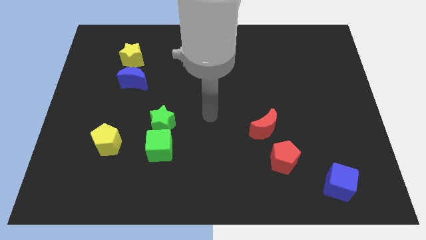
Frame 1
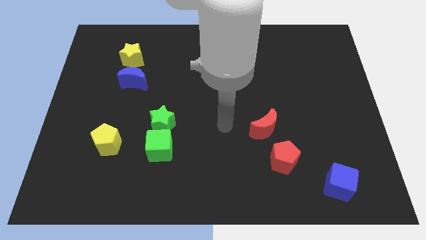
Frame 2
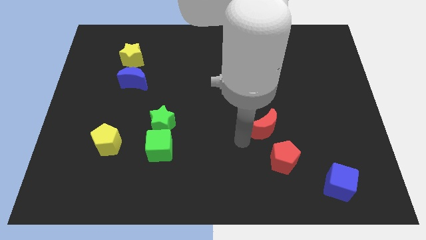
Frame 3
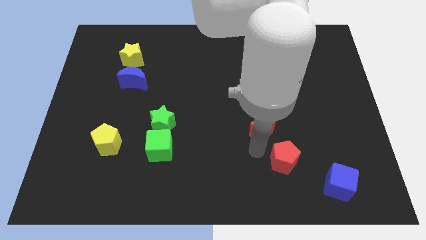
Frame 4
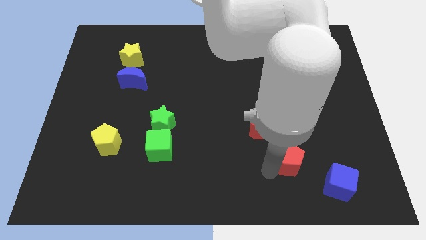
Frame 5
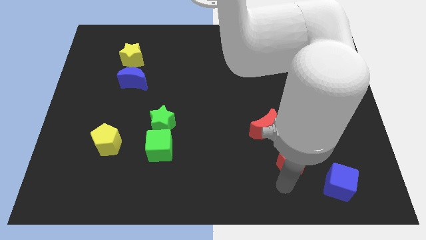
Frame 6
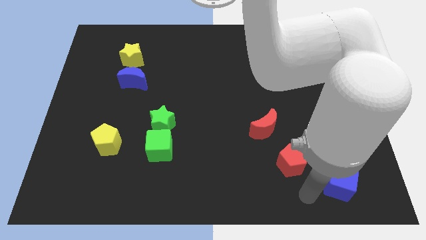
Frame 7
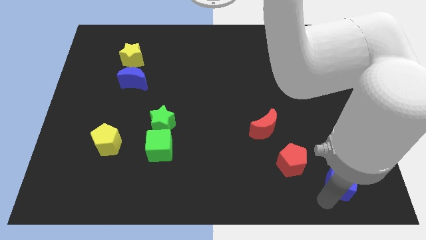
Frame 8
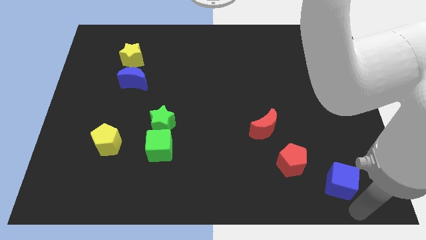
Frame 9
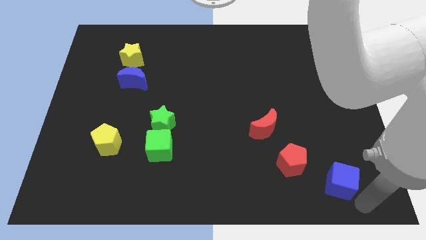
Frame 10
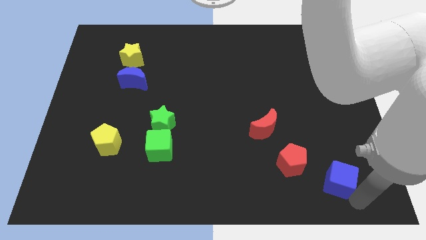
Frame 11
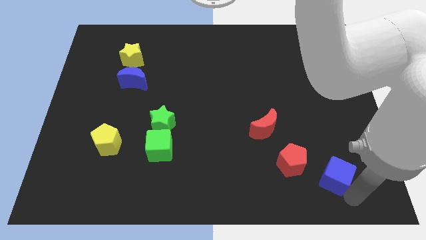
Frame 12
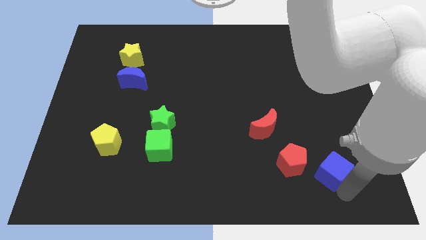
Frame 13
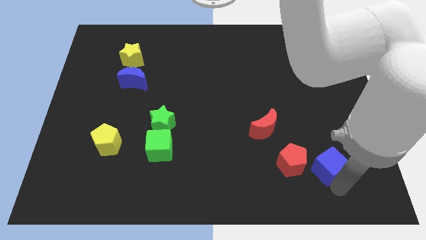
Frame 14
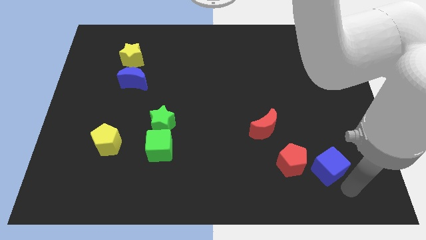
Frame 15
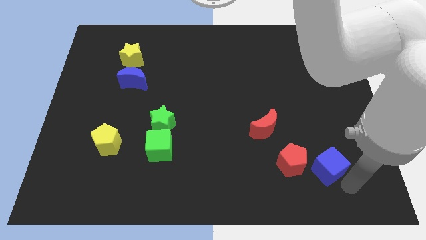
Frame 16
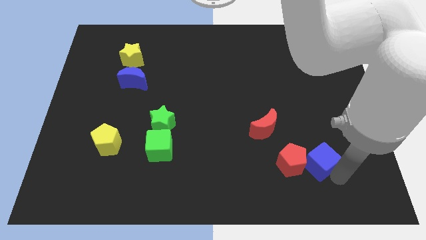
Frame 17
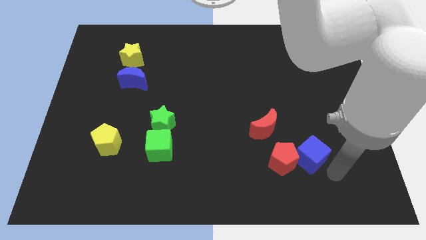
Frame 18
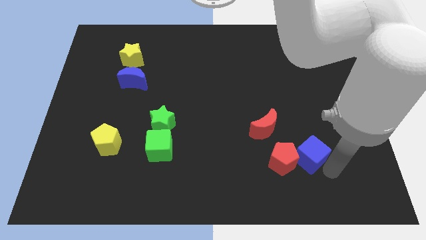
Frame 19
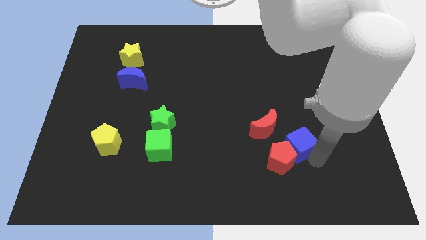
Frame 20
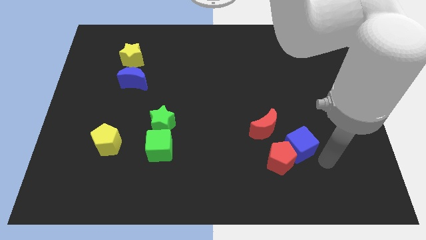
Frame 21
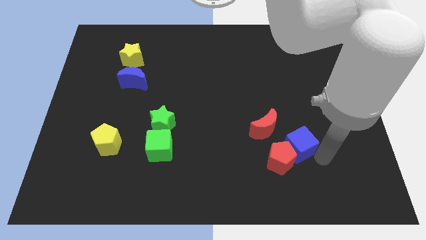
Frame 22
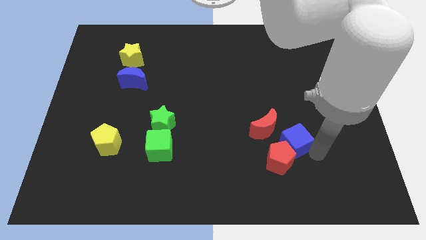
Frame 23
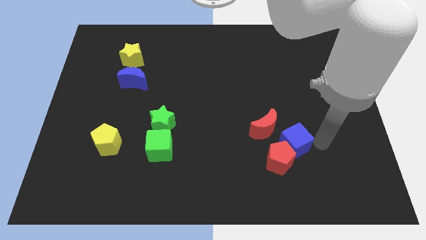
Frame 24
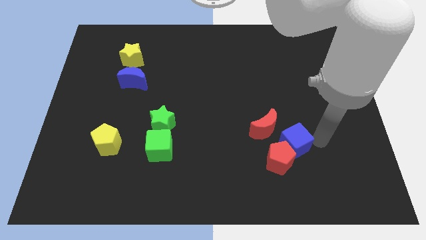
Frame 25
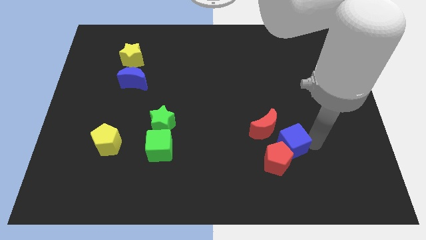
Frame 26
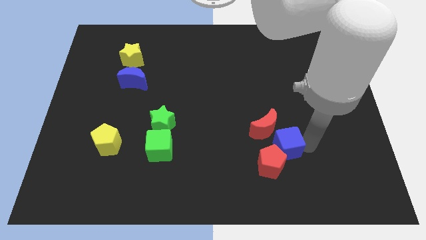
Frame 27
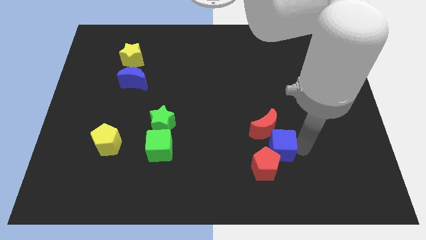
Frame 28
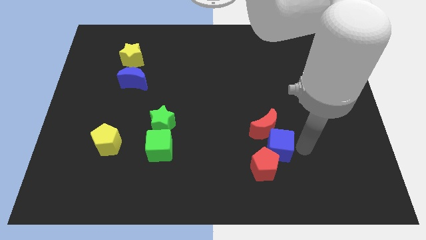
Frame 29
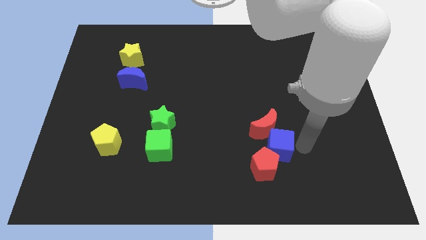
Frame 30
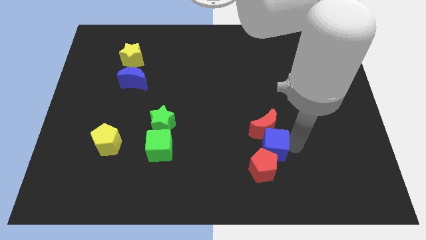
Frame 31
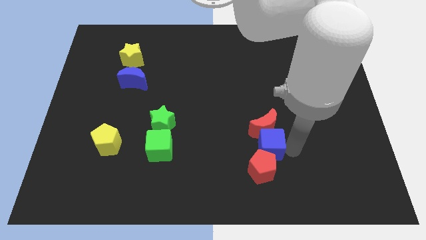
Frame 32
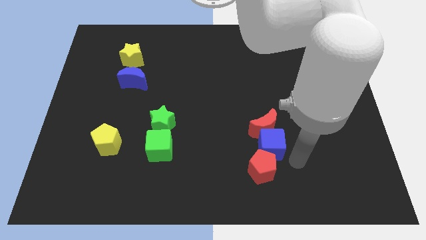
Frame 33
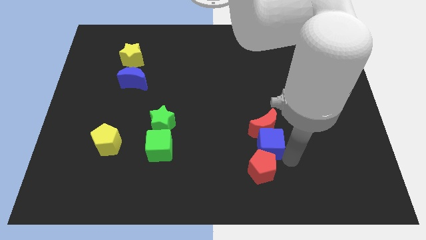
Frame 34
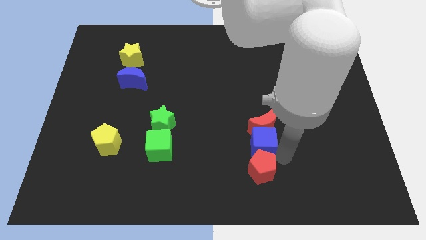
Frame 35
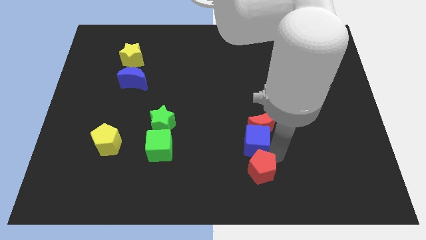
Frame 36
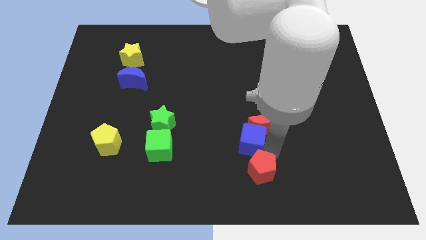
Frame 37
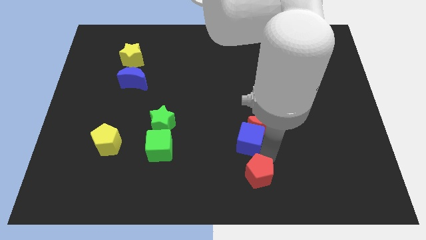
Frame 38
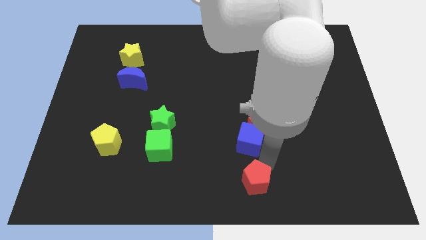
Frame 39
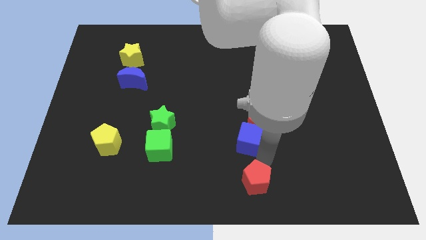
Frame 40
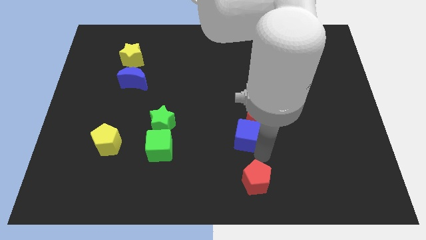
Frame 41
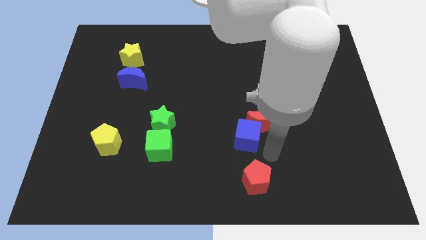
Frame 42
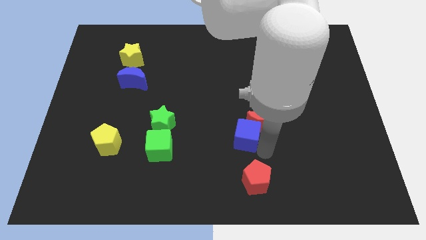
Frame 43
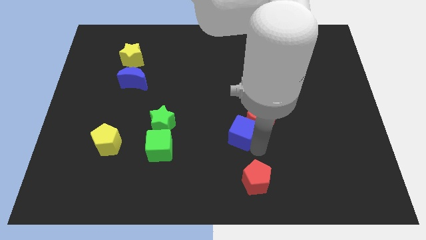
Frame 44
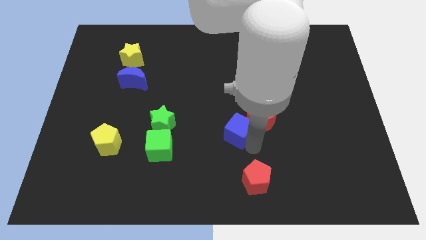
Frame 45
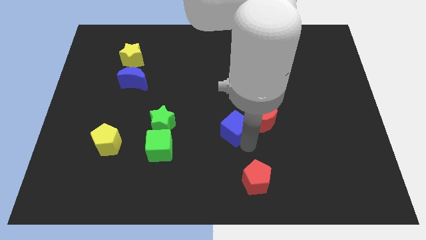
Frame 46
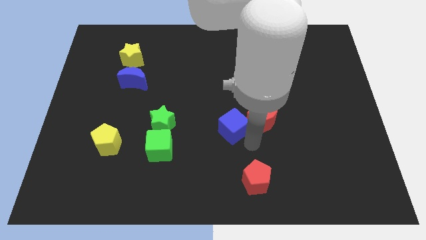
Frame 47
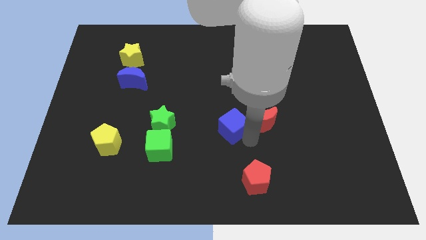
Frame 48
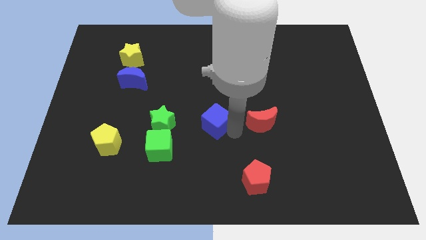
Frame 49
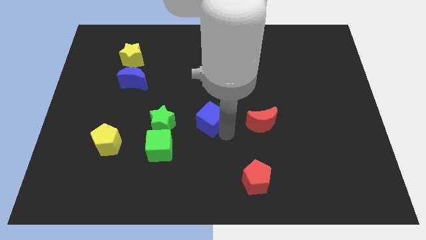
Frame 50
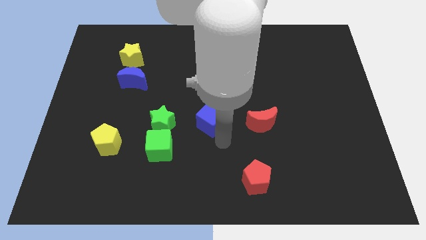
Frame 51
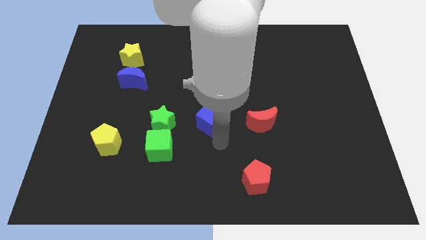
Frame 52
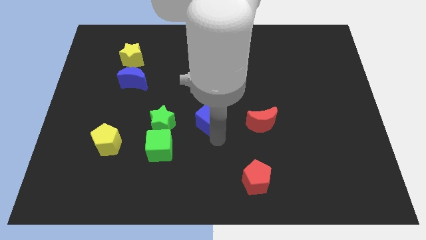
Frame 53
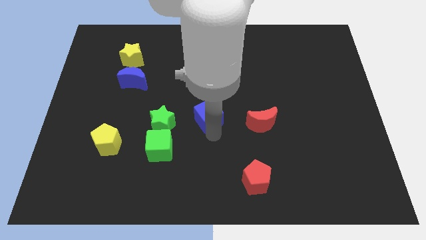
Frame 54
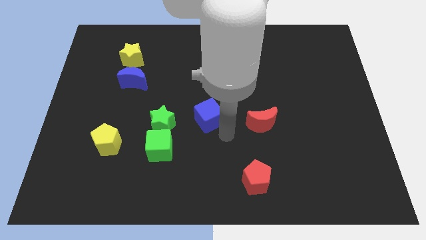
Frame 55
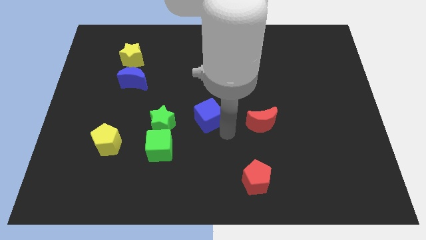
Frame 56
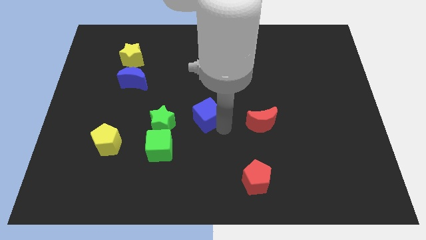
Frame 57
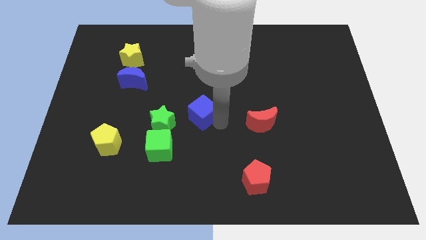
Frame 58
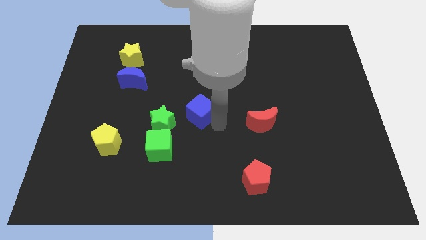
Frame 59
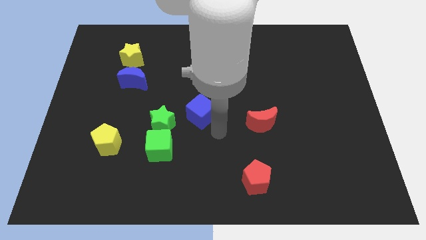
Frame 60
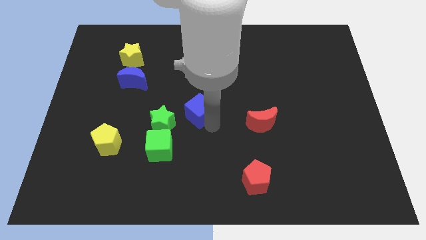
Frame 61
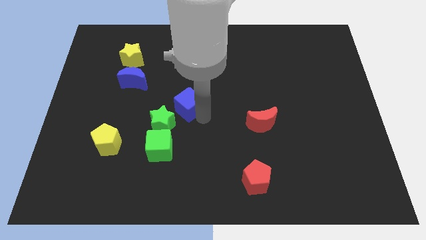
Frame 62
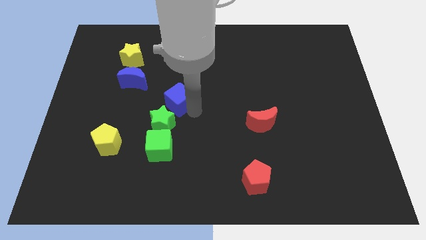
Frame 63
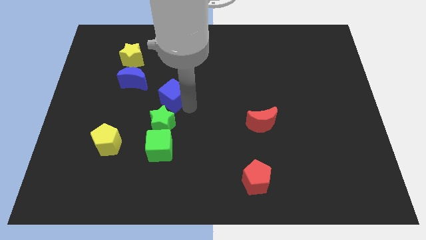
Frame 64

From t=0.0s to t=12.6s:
push the blue cube diagonally down and to the right of the blue moon
